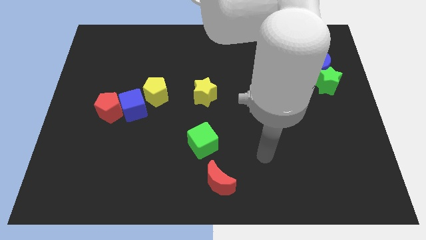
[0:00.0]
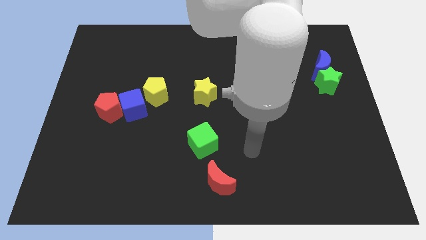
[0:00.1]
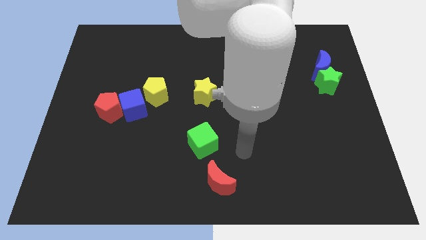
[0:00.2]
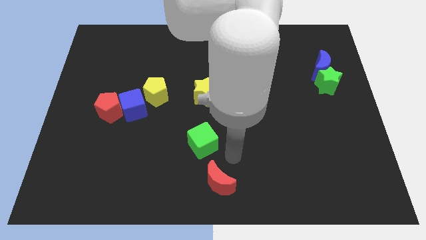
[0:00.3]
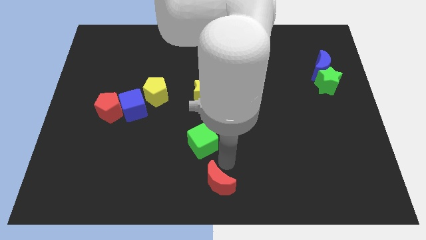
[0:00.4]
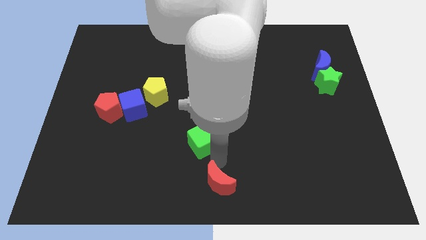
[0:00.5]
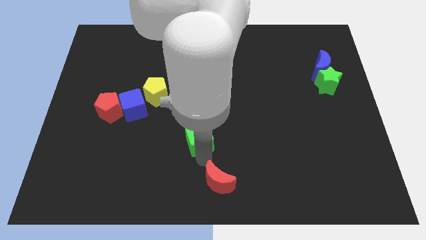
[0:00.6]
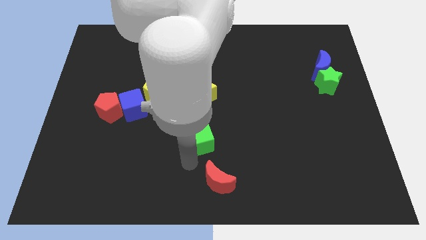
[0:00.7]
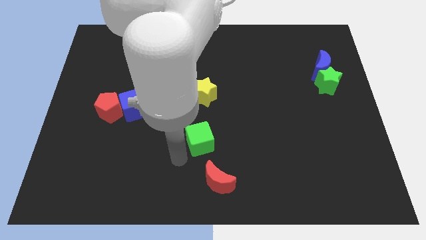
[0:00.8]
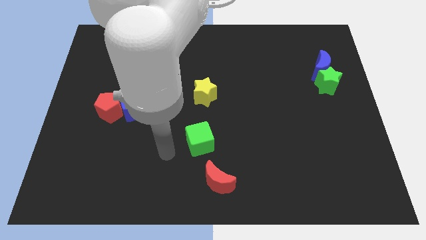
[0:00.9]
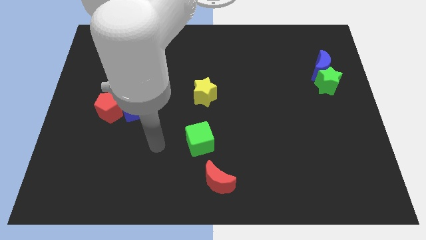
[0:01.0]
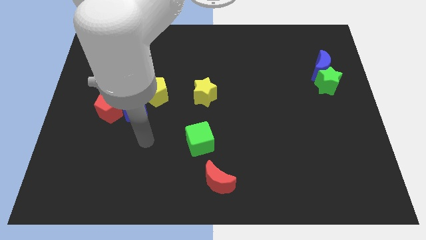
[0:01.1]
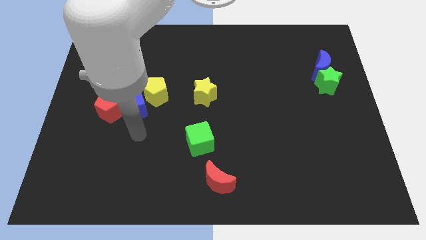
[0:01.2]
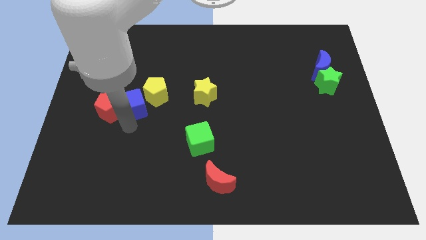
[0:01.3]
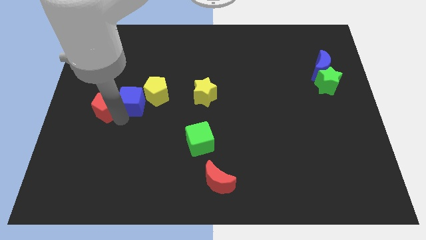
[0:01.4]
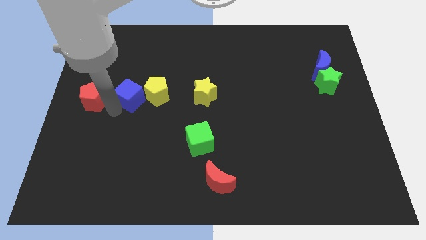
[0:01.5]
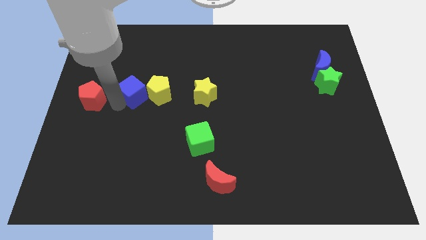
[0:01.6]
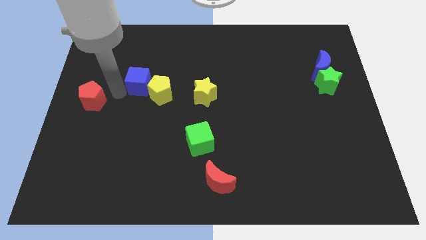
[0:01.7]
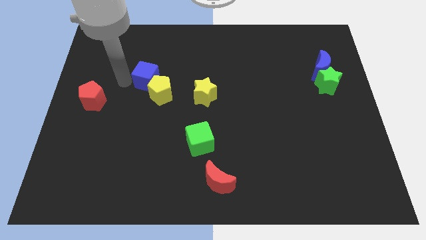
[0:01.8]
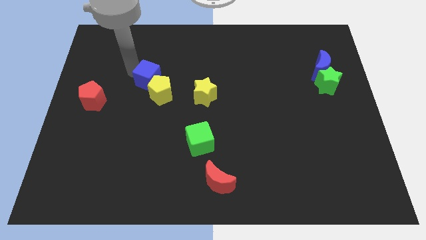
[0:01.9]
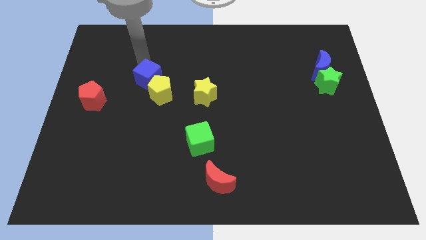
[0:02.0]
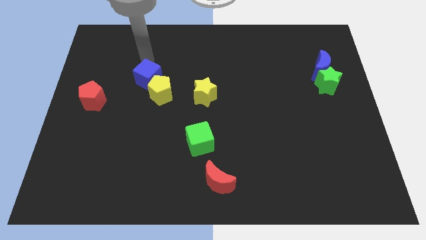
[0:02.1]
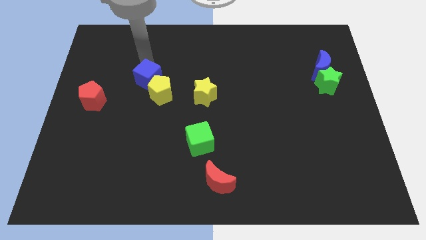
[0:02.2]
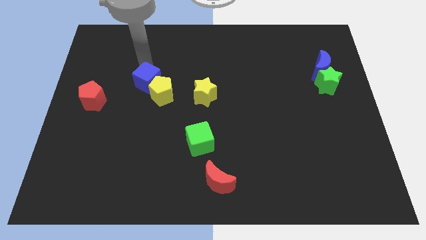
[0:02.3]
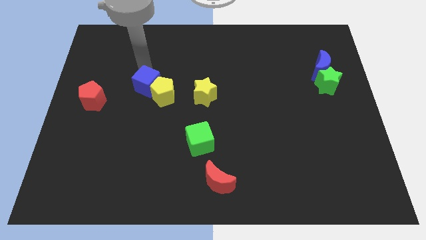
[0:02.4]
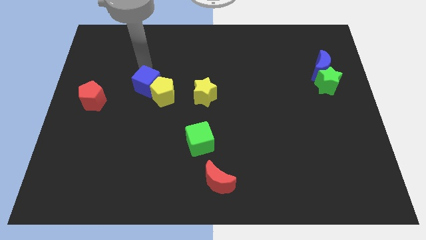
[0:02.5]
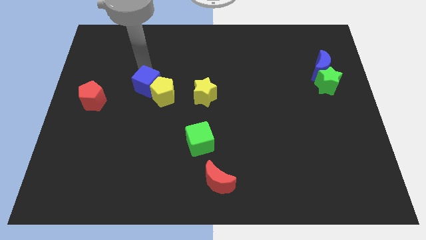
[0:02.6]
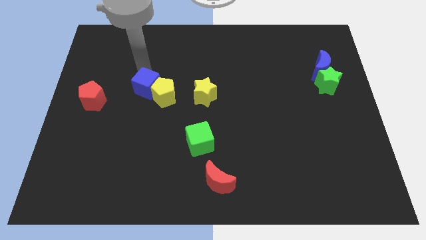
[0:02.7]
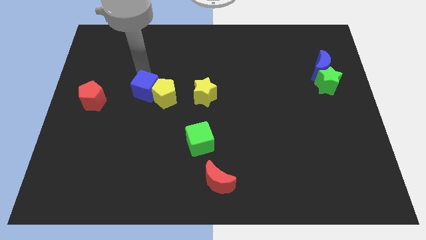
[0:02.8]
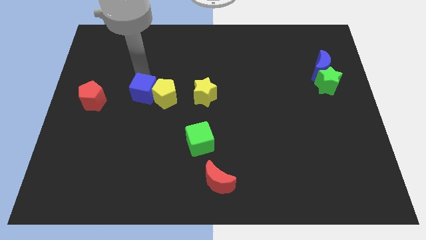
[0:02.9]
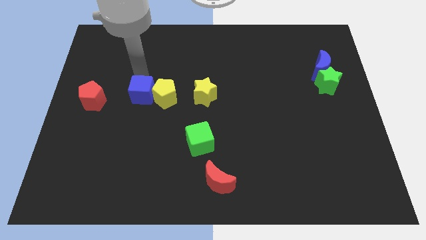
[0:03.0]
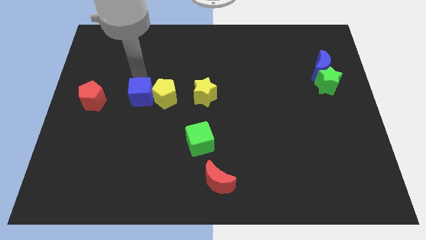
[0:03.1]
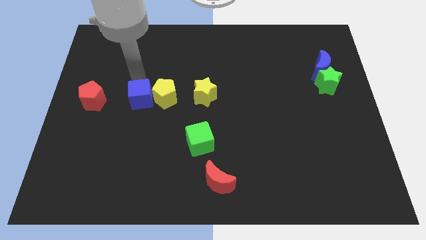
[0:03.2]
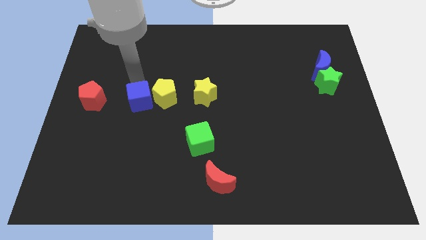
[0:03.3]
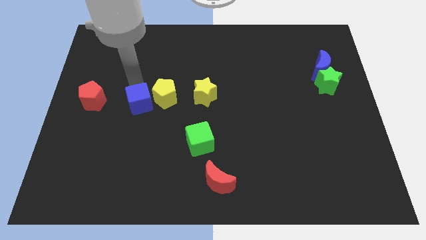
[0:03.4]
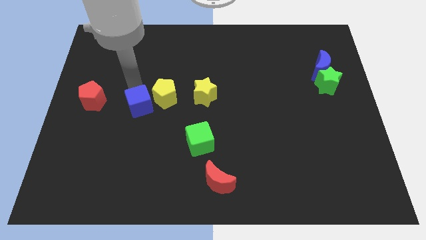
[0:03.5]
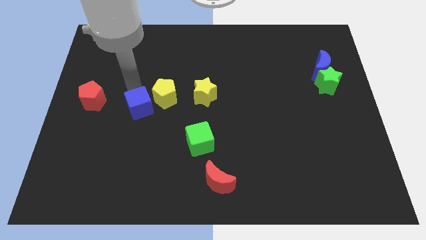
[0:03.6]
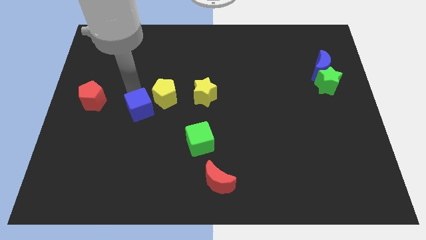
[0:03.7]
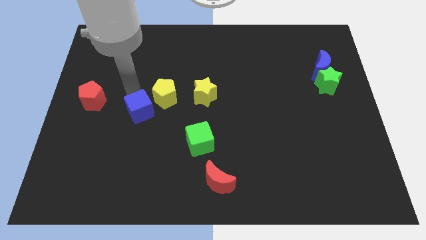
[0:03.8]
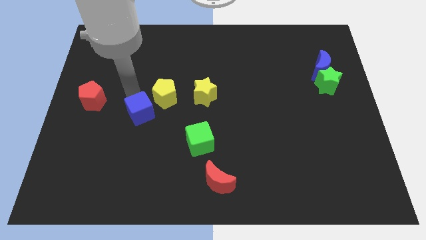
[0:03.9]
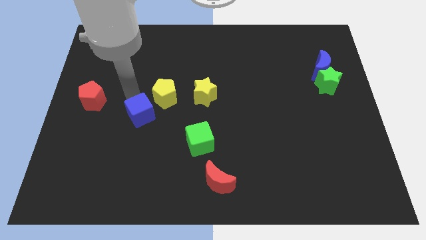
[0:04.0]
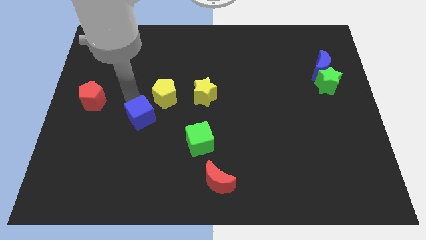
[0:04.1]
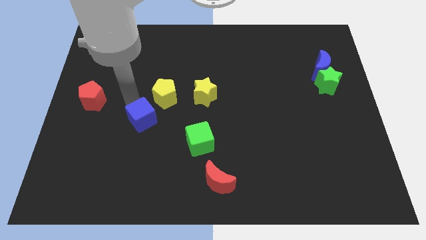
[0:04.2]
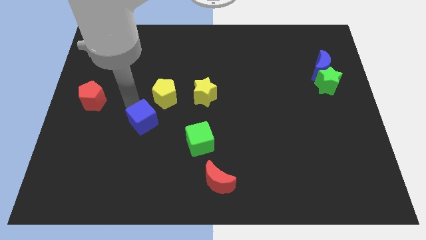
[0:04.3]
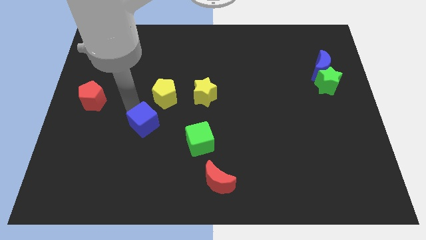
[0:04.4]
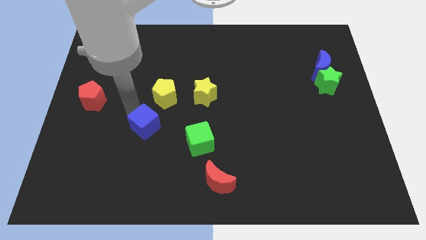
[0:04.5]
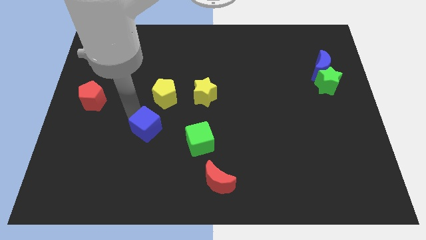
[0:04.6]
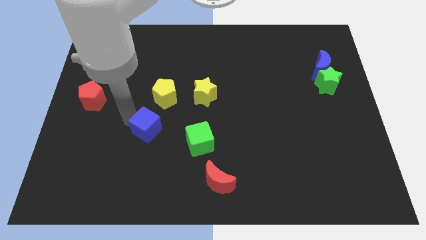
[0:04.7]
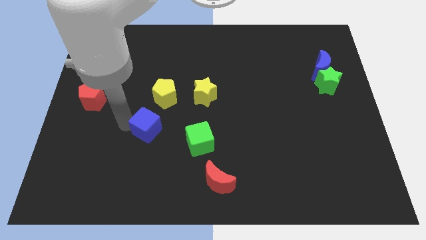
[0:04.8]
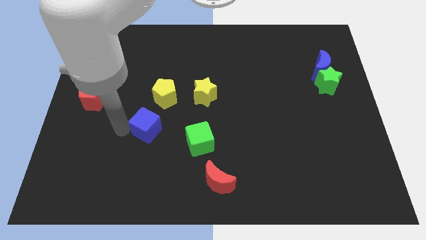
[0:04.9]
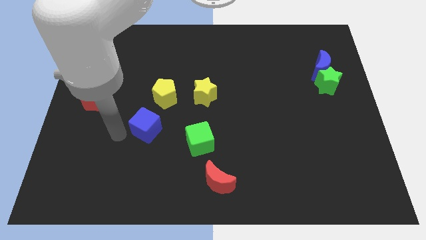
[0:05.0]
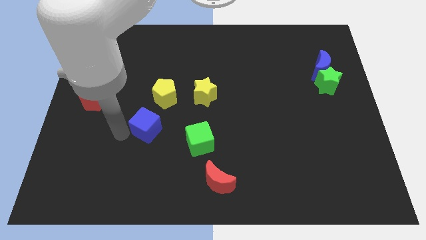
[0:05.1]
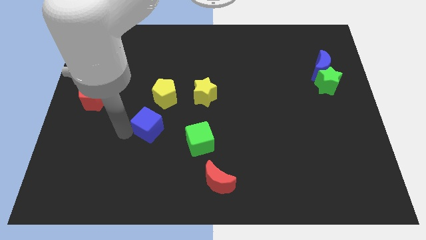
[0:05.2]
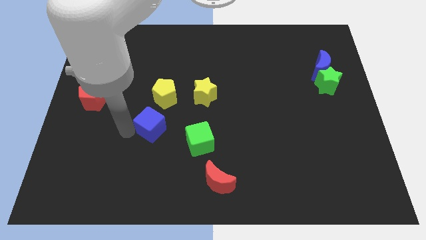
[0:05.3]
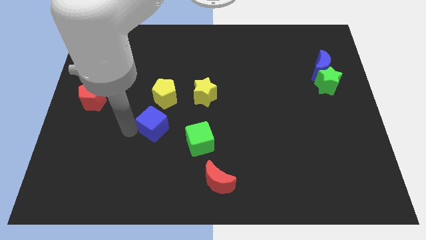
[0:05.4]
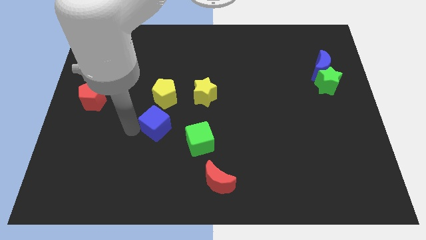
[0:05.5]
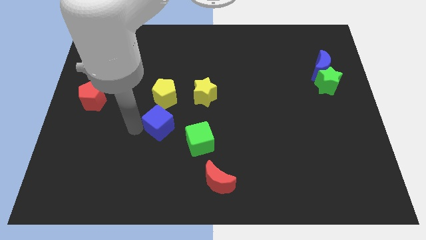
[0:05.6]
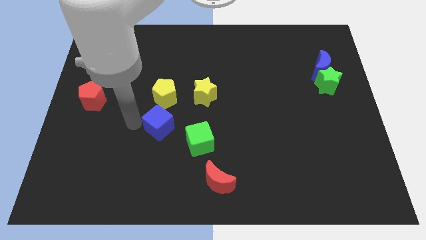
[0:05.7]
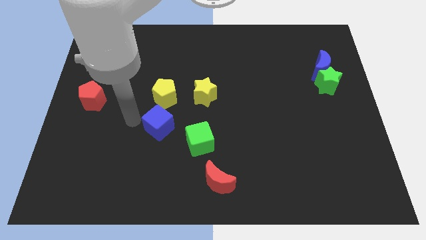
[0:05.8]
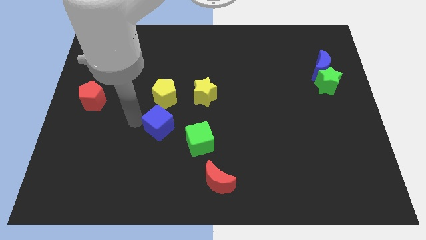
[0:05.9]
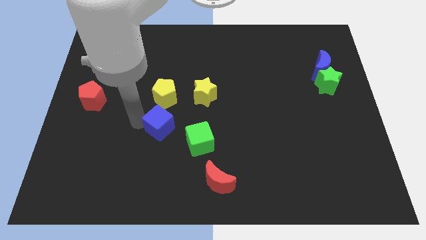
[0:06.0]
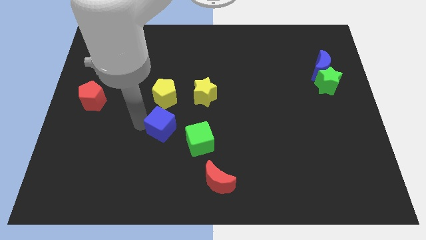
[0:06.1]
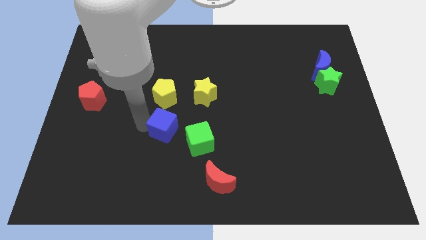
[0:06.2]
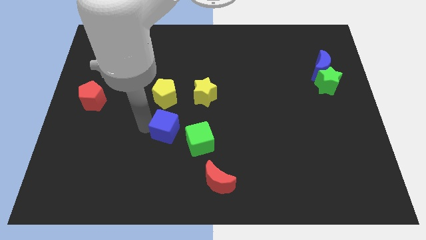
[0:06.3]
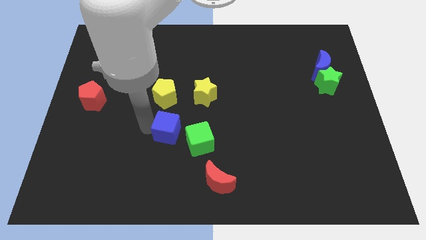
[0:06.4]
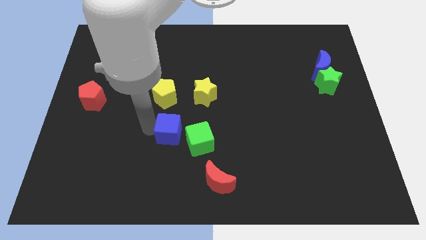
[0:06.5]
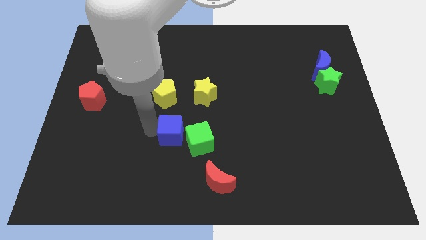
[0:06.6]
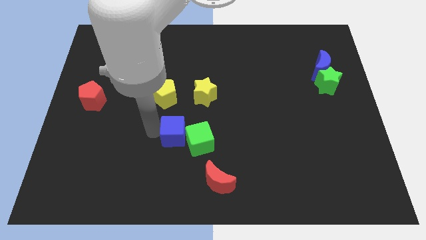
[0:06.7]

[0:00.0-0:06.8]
put the blue cube next to the green cube

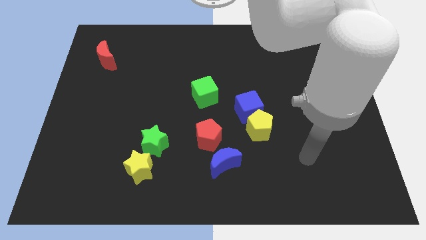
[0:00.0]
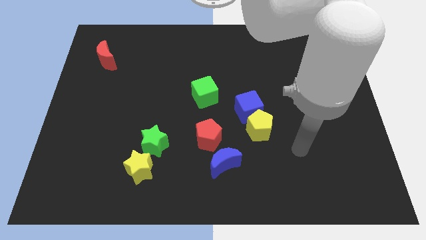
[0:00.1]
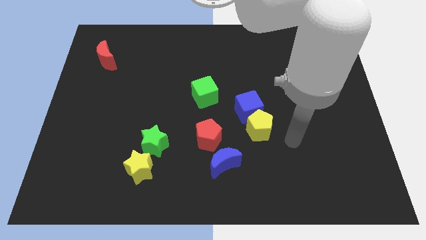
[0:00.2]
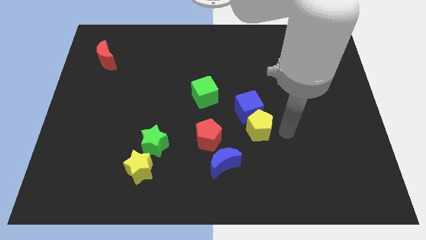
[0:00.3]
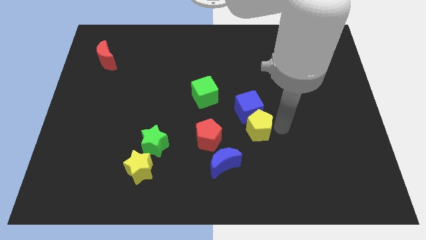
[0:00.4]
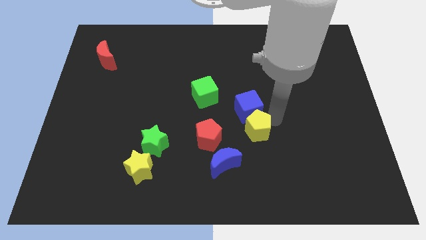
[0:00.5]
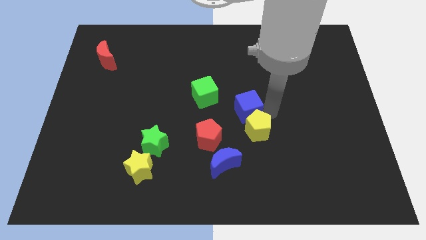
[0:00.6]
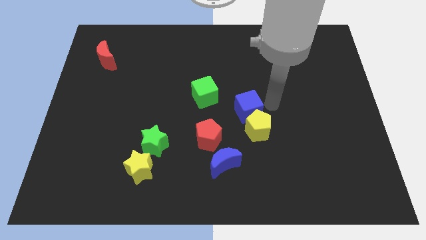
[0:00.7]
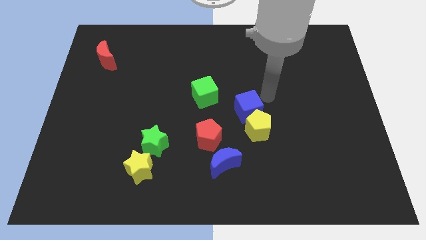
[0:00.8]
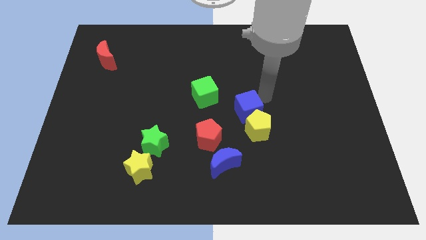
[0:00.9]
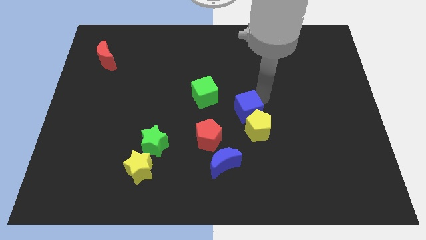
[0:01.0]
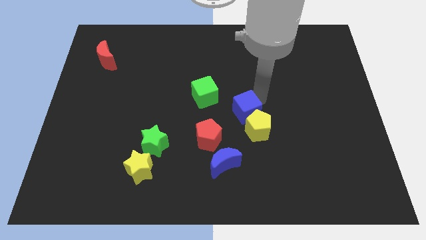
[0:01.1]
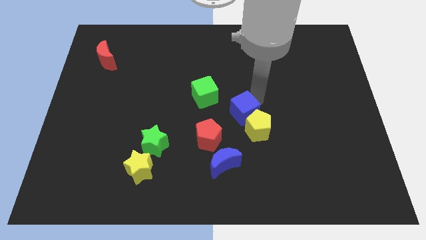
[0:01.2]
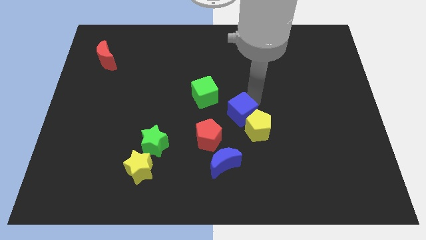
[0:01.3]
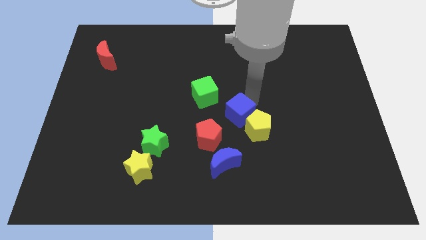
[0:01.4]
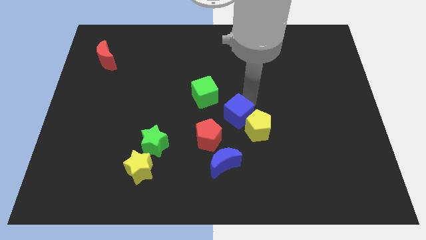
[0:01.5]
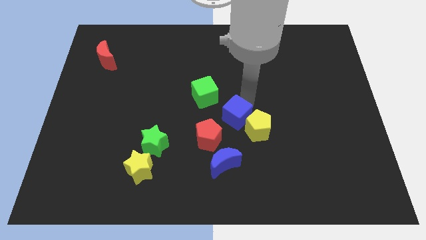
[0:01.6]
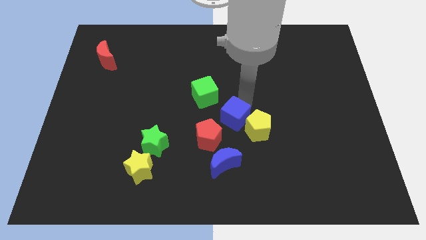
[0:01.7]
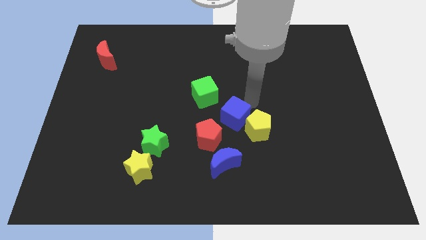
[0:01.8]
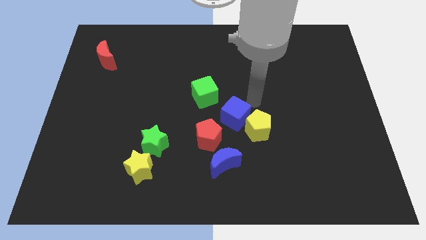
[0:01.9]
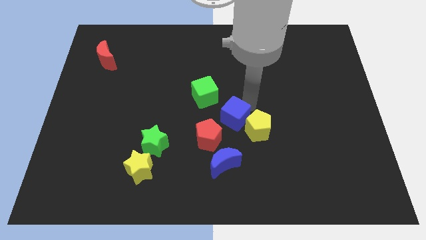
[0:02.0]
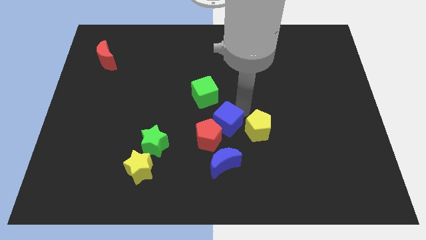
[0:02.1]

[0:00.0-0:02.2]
push the blue cube towards the red pentagon
